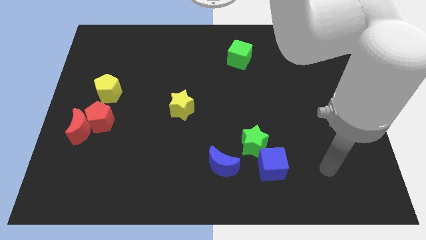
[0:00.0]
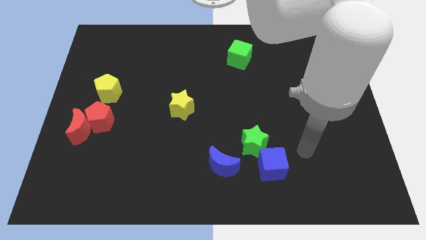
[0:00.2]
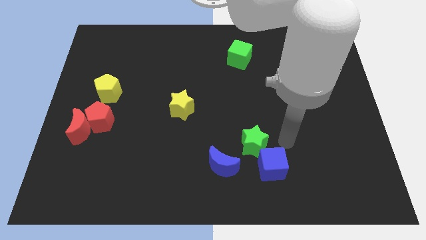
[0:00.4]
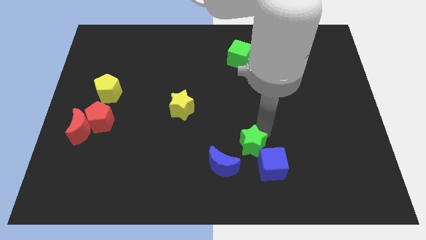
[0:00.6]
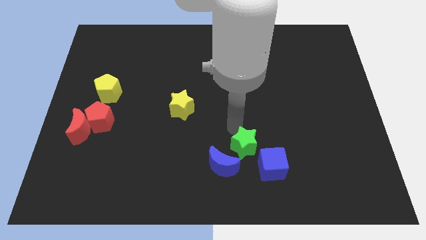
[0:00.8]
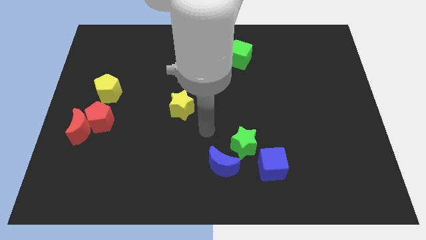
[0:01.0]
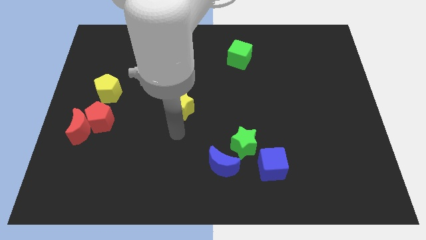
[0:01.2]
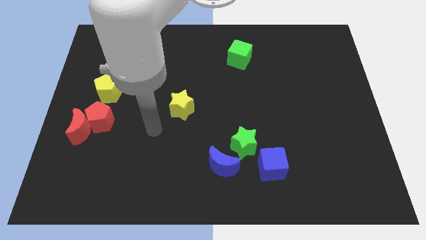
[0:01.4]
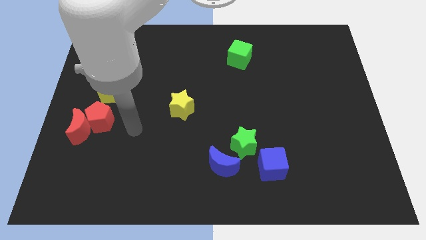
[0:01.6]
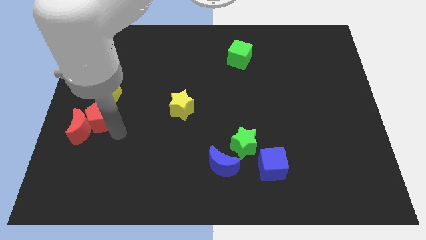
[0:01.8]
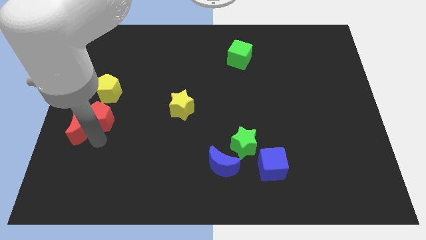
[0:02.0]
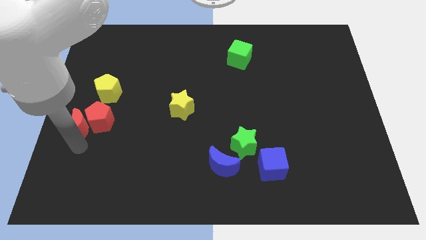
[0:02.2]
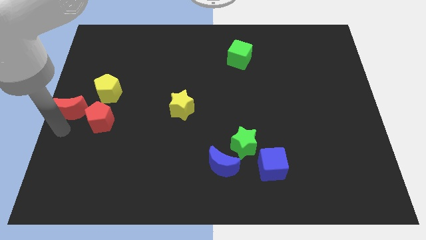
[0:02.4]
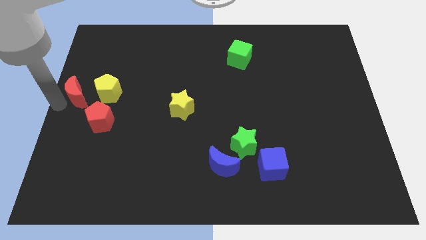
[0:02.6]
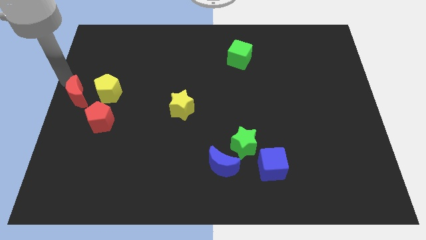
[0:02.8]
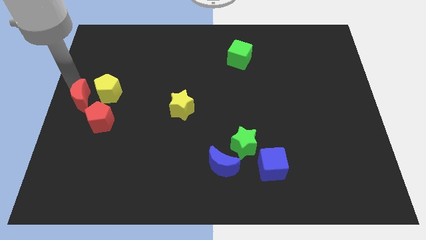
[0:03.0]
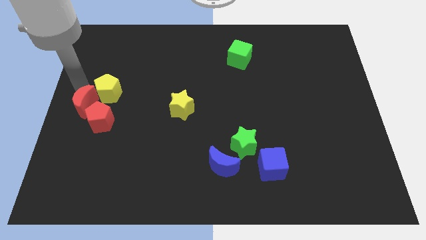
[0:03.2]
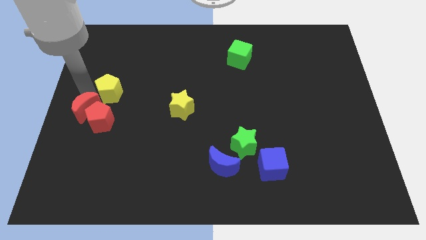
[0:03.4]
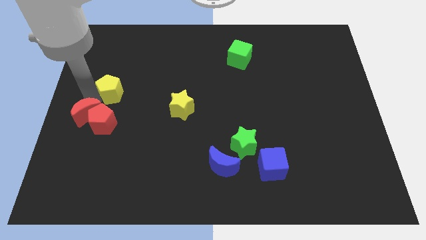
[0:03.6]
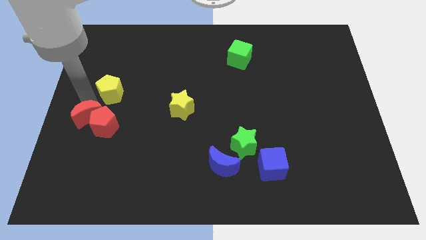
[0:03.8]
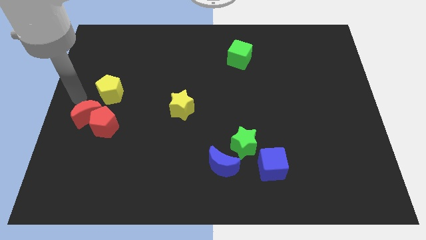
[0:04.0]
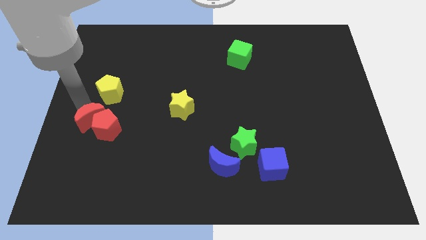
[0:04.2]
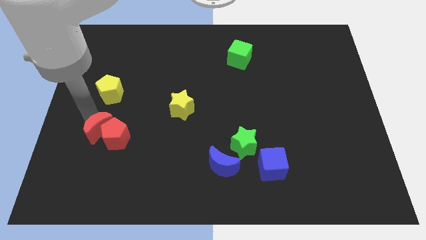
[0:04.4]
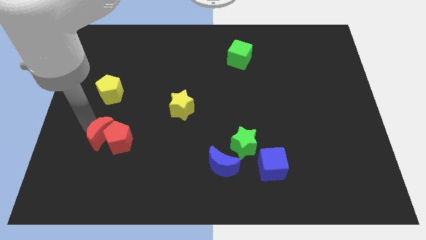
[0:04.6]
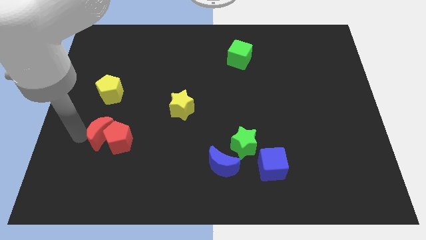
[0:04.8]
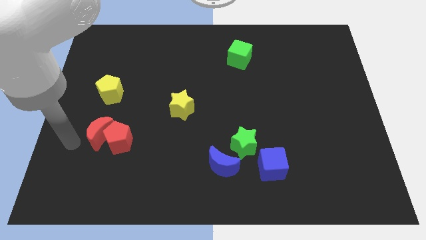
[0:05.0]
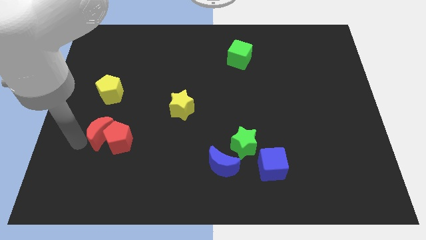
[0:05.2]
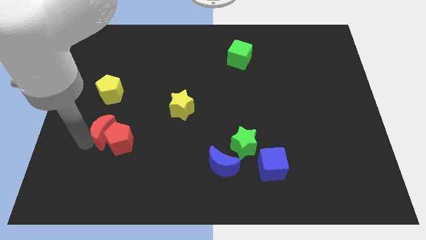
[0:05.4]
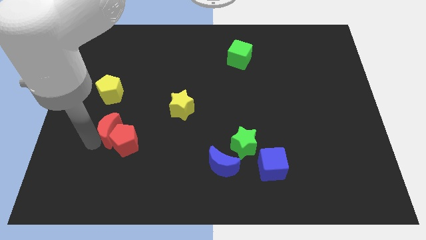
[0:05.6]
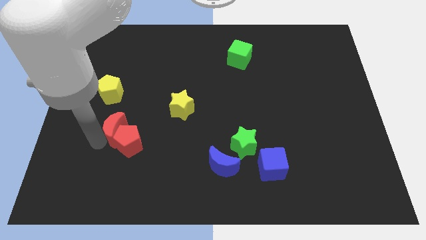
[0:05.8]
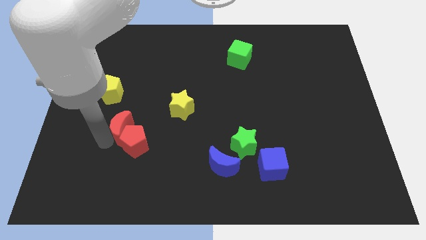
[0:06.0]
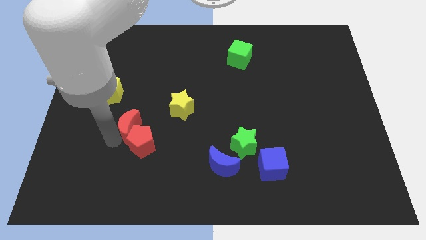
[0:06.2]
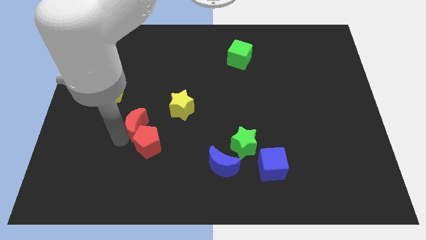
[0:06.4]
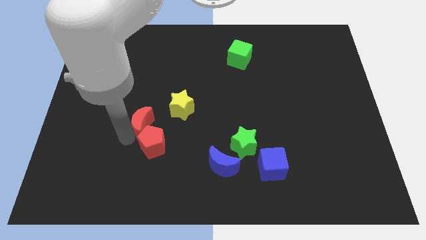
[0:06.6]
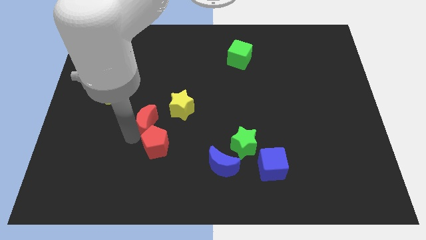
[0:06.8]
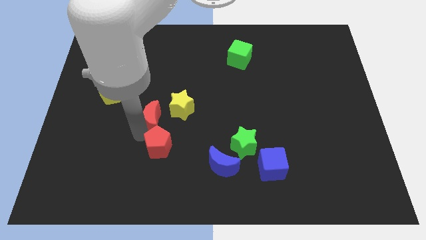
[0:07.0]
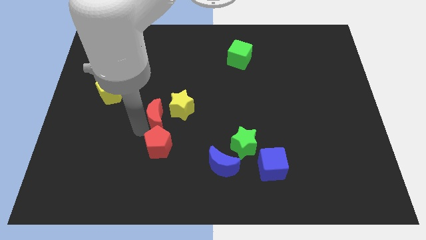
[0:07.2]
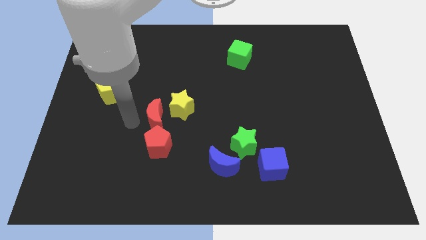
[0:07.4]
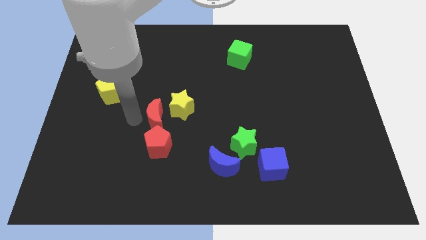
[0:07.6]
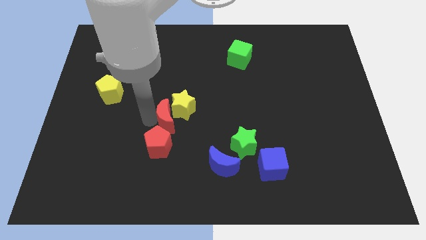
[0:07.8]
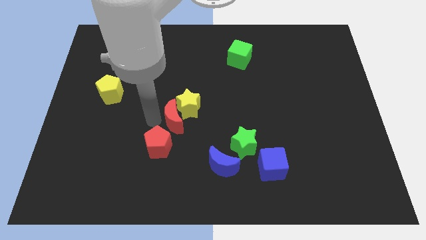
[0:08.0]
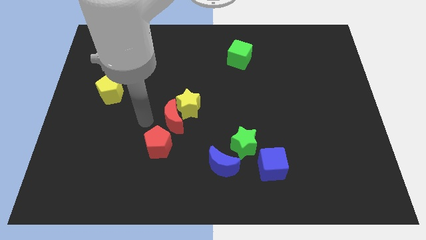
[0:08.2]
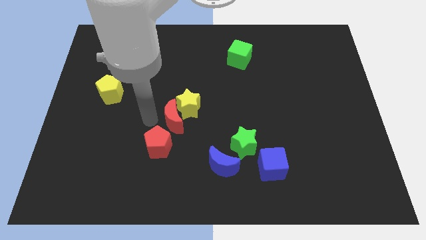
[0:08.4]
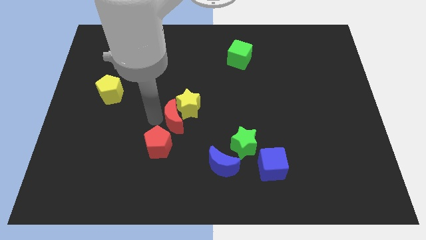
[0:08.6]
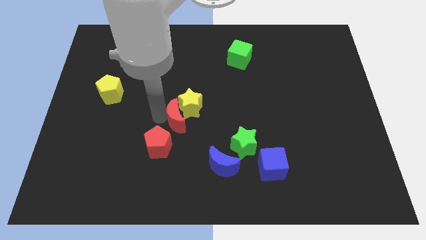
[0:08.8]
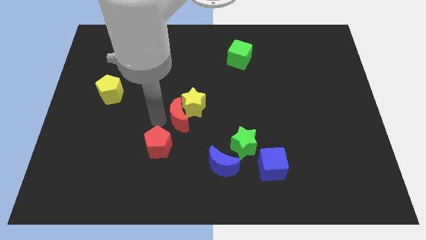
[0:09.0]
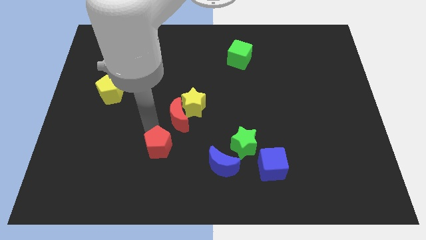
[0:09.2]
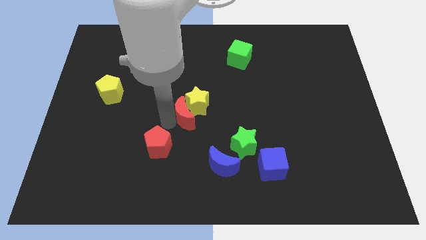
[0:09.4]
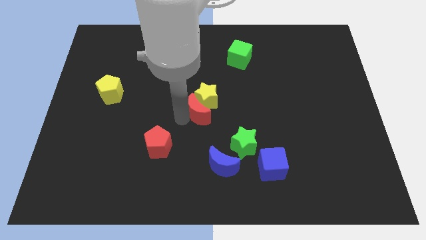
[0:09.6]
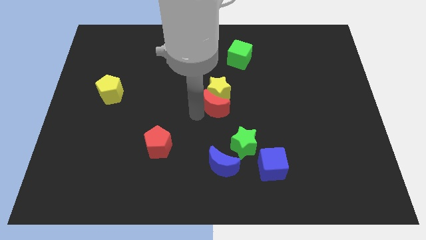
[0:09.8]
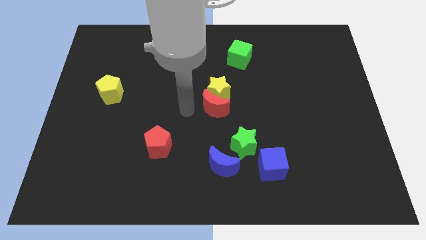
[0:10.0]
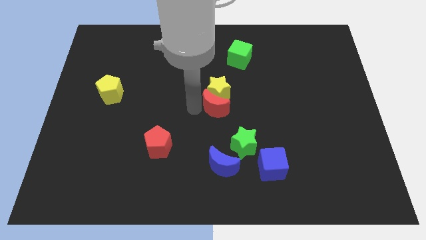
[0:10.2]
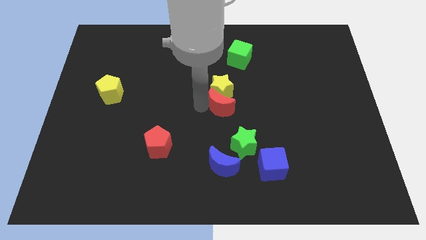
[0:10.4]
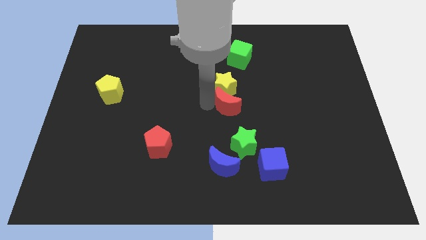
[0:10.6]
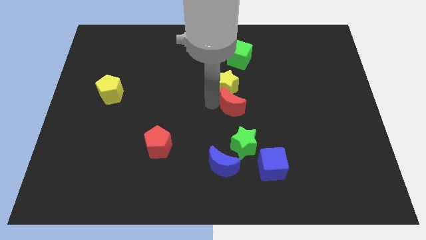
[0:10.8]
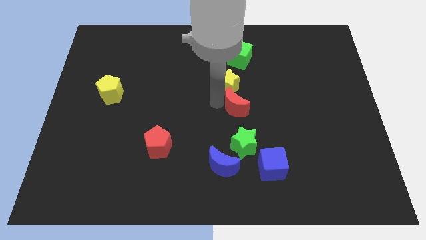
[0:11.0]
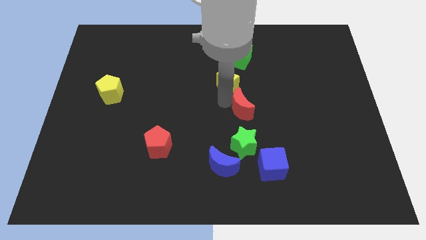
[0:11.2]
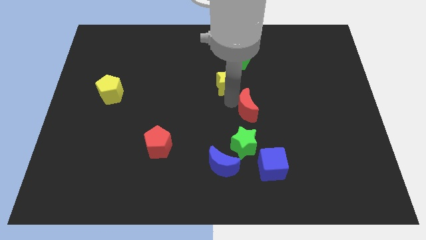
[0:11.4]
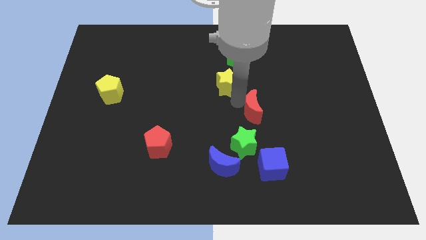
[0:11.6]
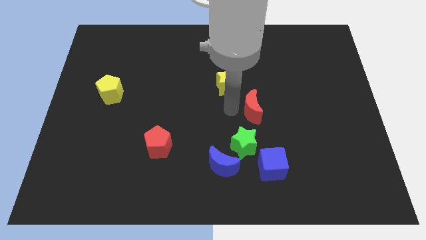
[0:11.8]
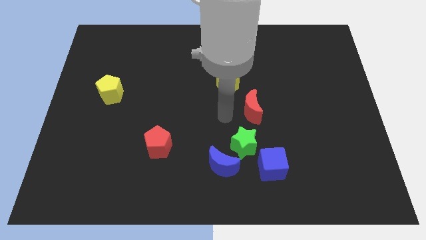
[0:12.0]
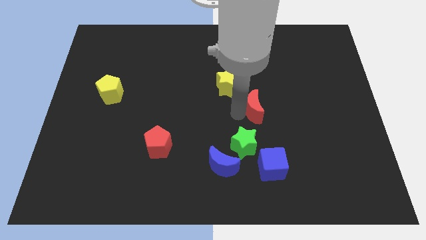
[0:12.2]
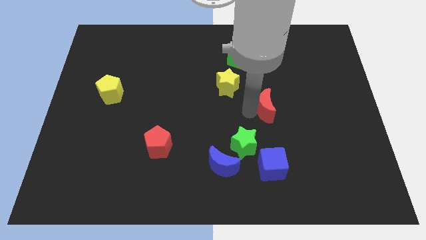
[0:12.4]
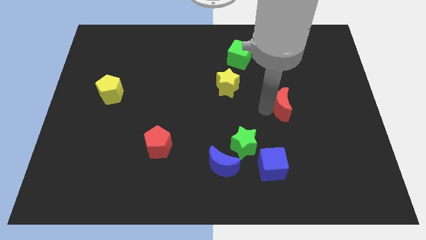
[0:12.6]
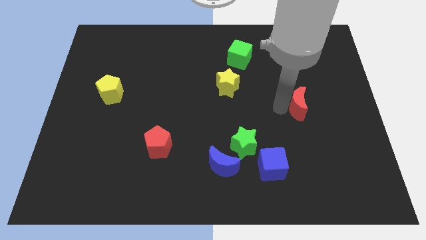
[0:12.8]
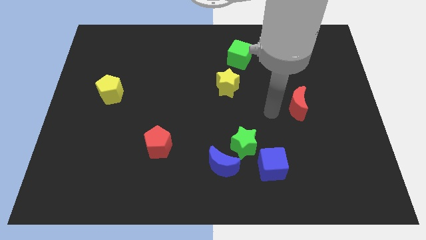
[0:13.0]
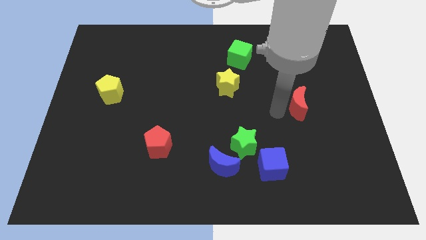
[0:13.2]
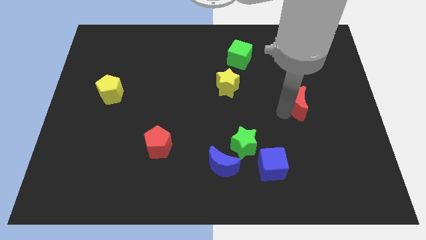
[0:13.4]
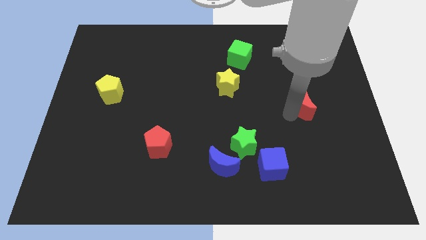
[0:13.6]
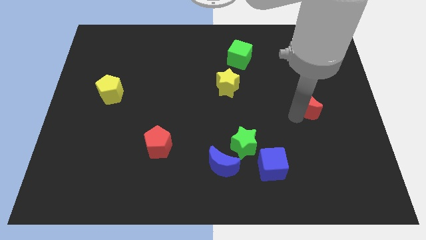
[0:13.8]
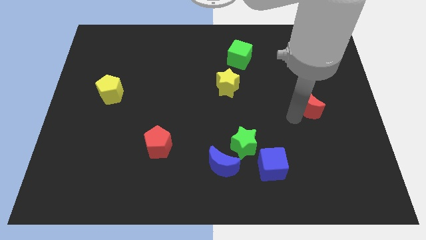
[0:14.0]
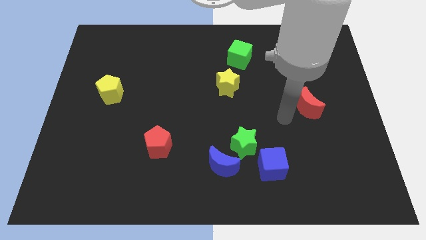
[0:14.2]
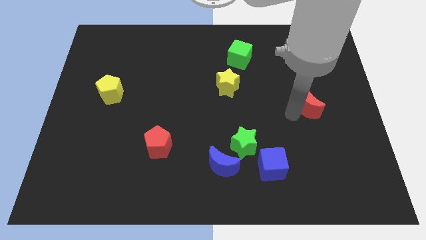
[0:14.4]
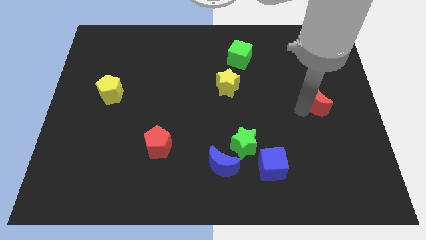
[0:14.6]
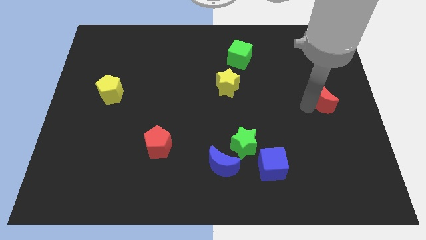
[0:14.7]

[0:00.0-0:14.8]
push the red moon to the right side of the board
